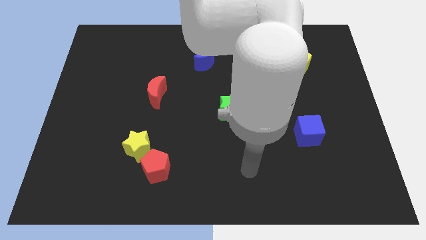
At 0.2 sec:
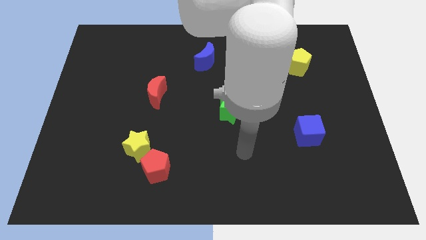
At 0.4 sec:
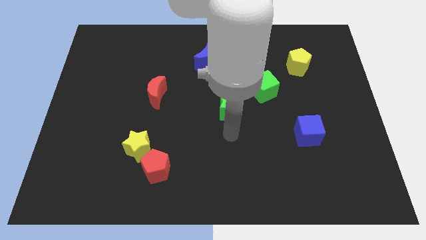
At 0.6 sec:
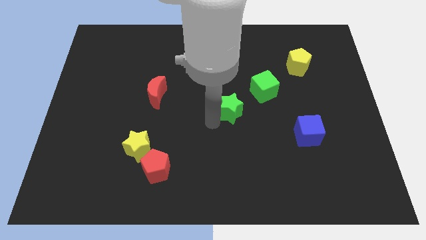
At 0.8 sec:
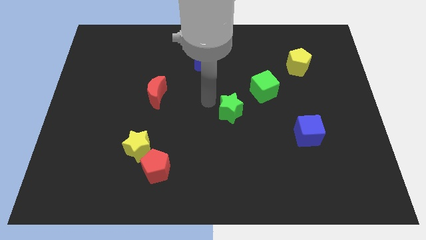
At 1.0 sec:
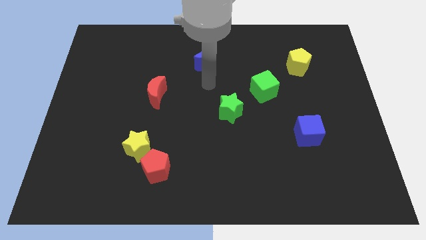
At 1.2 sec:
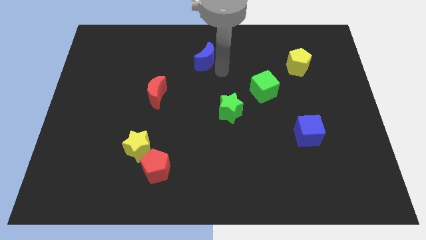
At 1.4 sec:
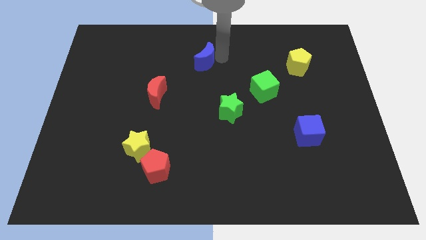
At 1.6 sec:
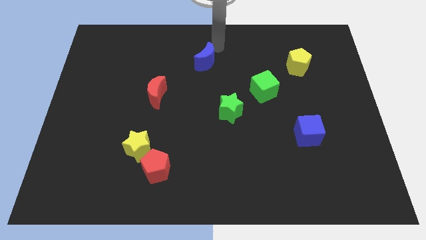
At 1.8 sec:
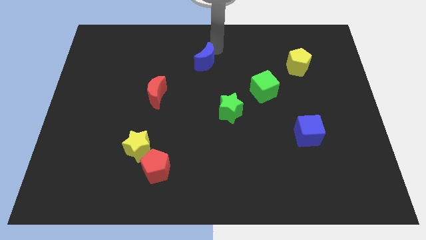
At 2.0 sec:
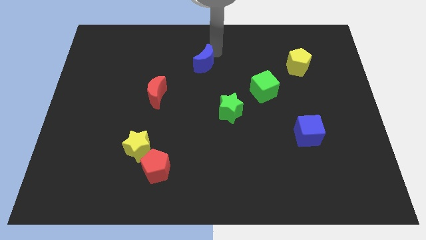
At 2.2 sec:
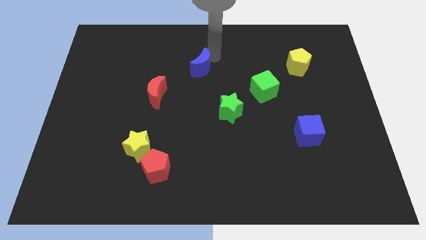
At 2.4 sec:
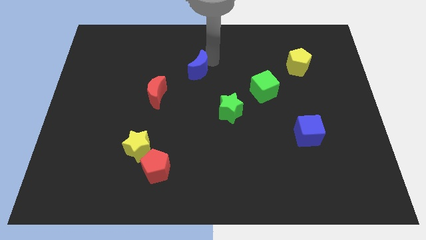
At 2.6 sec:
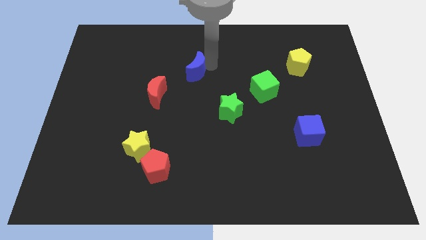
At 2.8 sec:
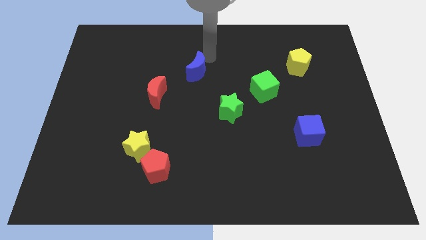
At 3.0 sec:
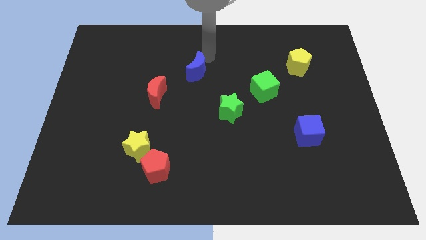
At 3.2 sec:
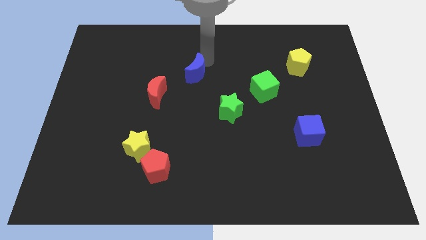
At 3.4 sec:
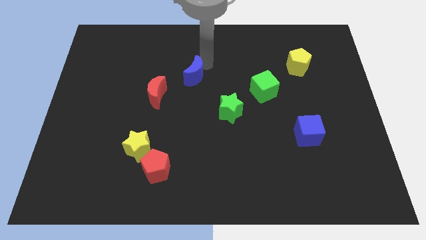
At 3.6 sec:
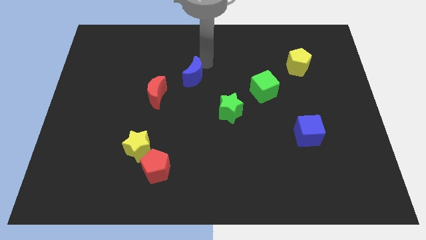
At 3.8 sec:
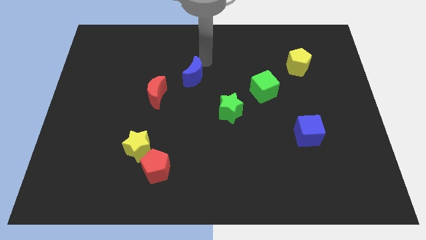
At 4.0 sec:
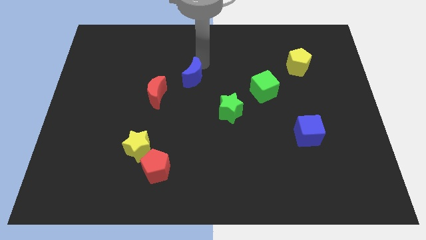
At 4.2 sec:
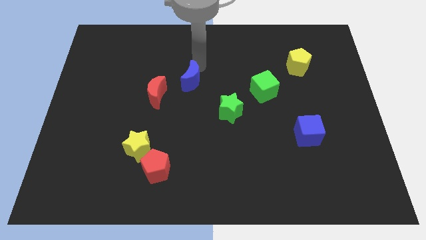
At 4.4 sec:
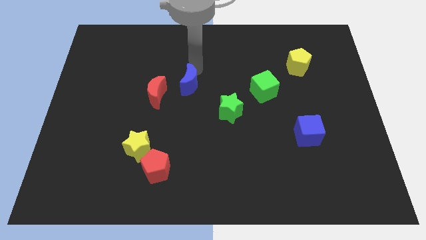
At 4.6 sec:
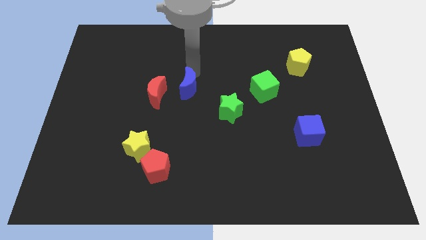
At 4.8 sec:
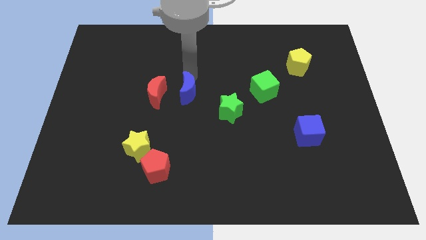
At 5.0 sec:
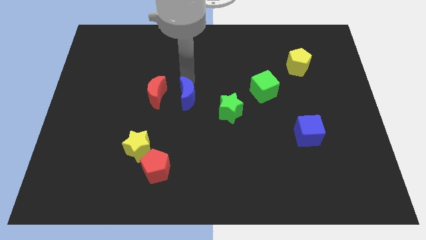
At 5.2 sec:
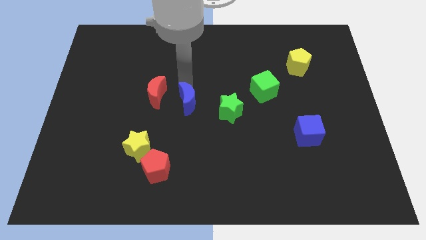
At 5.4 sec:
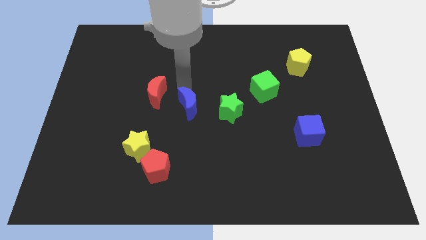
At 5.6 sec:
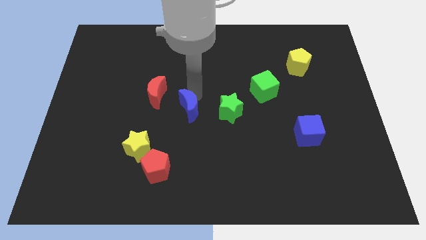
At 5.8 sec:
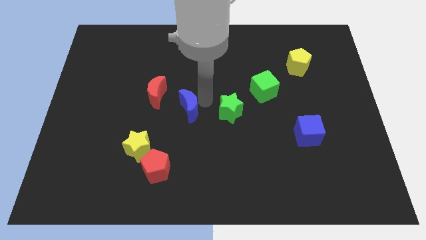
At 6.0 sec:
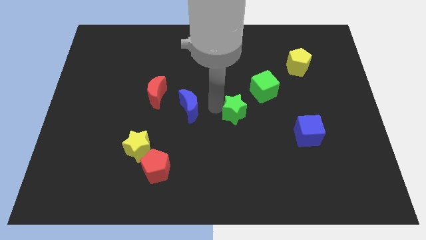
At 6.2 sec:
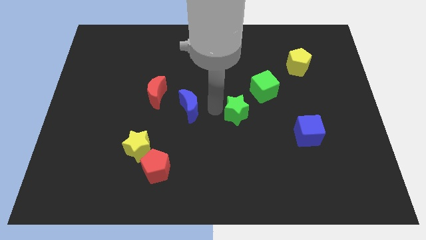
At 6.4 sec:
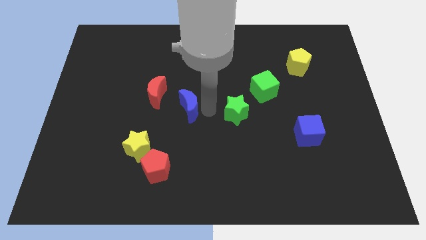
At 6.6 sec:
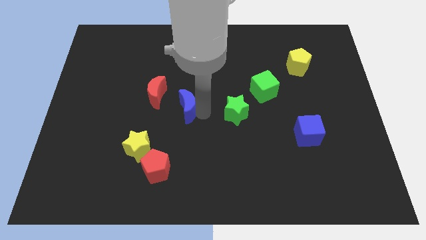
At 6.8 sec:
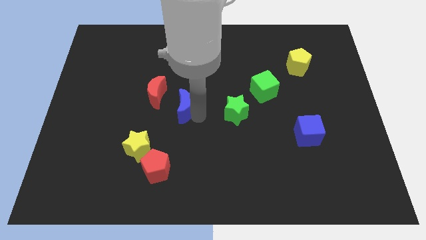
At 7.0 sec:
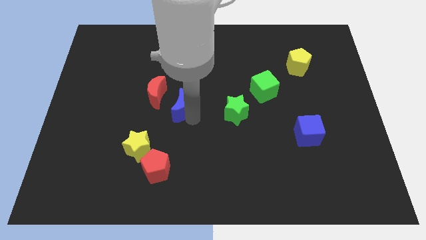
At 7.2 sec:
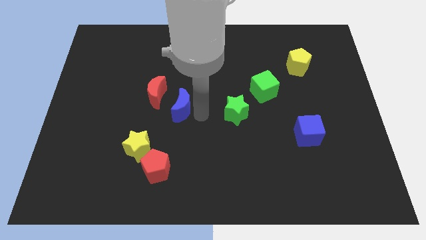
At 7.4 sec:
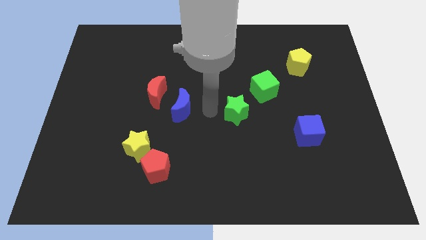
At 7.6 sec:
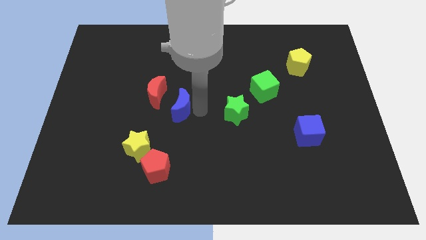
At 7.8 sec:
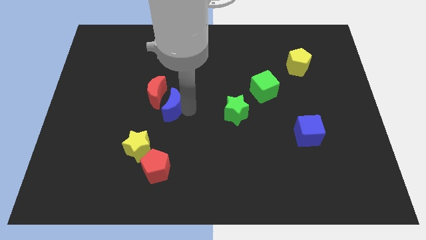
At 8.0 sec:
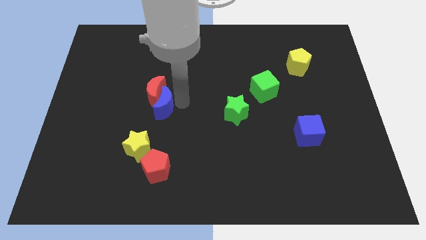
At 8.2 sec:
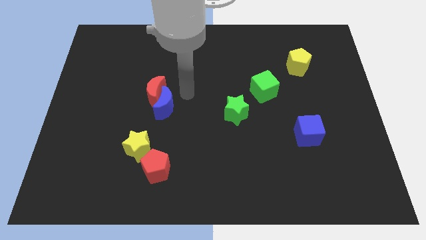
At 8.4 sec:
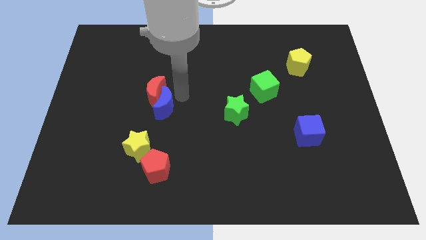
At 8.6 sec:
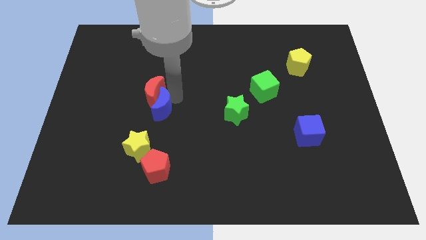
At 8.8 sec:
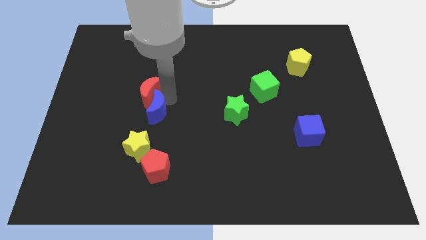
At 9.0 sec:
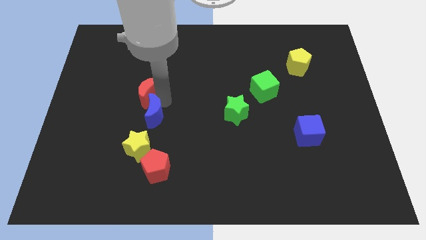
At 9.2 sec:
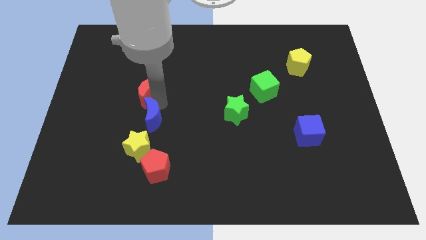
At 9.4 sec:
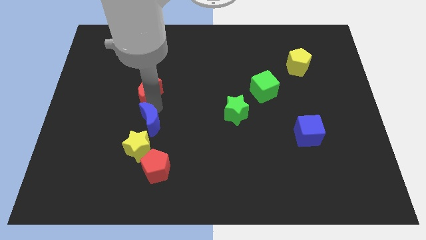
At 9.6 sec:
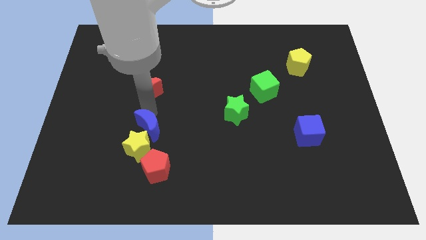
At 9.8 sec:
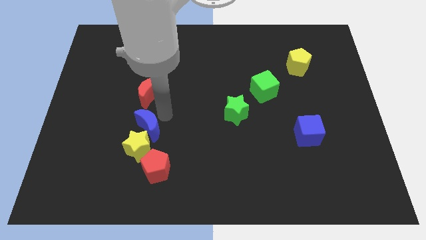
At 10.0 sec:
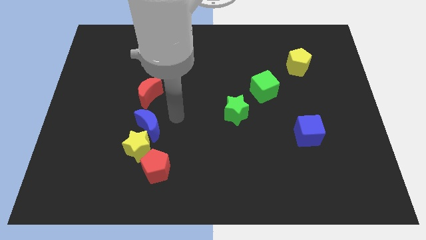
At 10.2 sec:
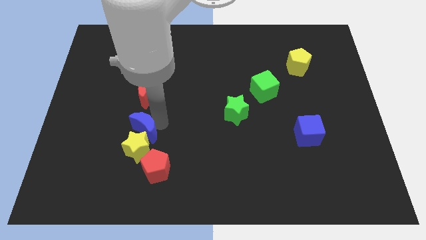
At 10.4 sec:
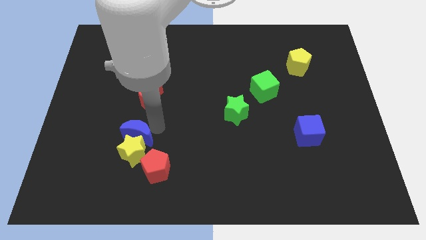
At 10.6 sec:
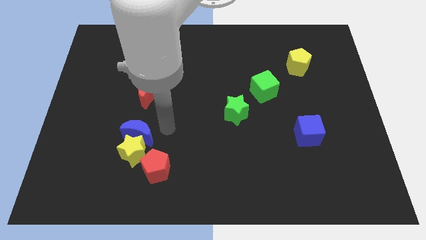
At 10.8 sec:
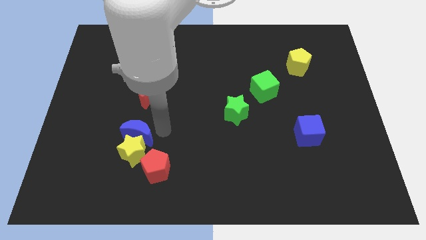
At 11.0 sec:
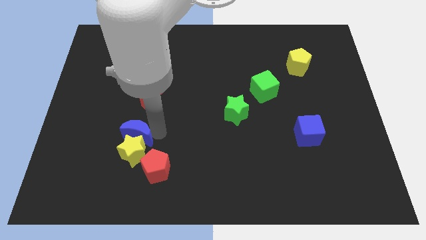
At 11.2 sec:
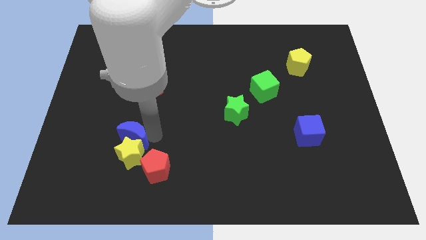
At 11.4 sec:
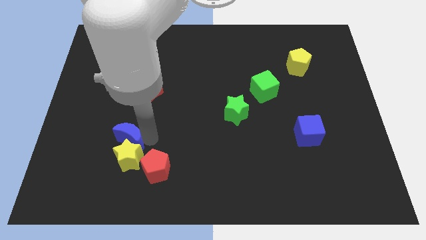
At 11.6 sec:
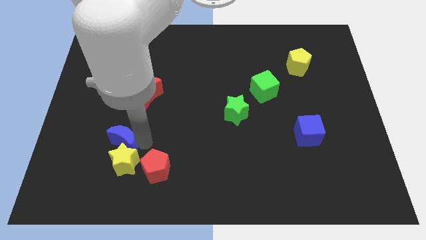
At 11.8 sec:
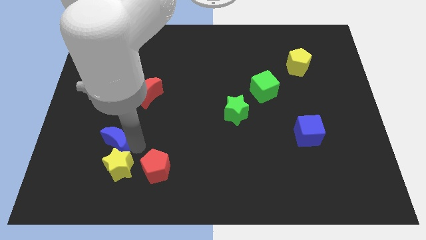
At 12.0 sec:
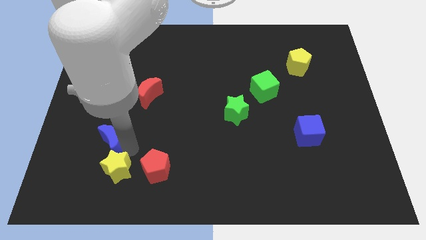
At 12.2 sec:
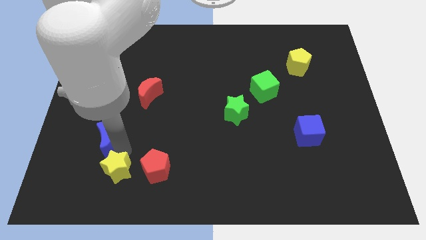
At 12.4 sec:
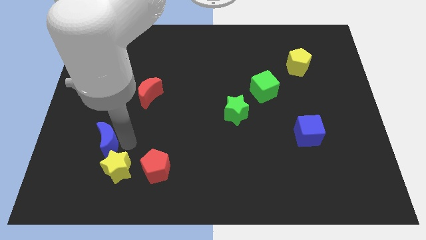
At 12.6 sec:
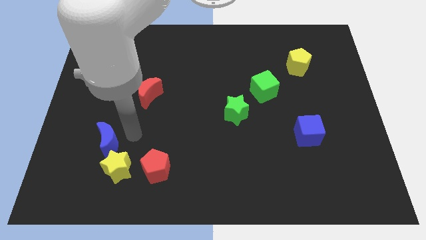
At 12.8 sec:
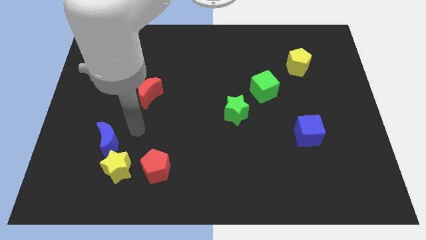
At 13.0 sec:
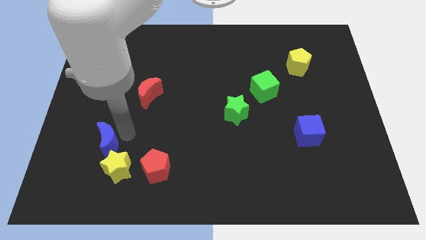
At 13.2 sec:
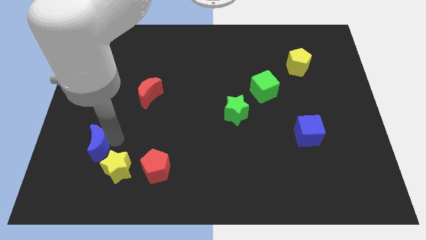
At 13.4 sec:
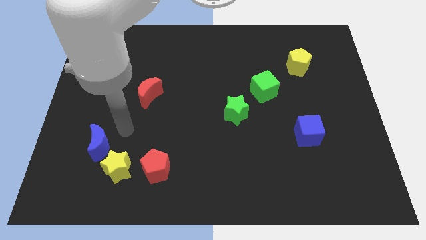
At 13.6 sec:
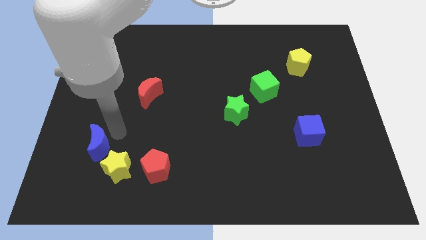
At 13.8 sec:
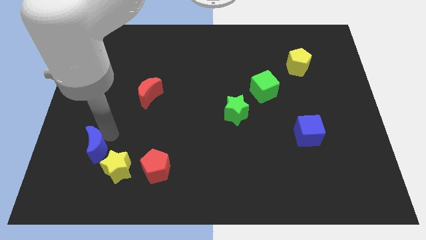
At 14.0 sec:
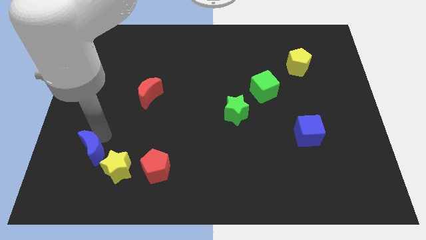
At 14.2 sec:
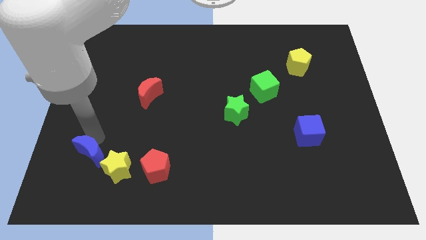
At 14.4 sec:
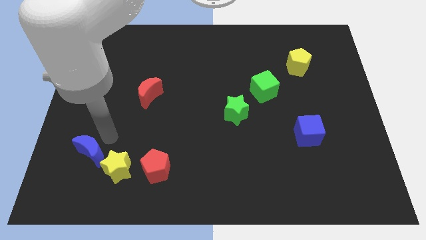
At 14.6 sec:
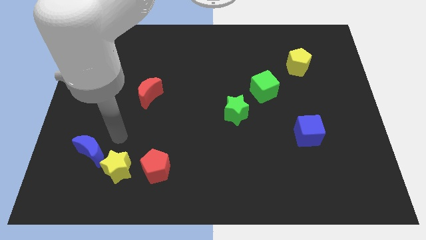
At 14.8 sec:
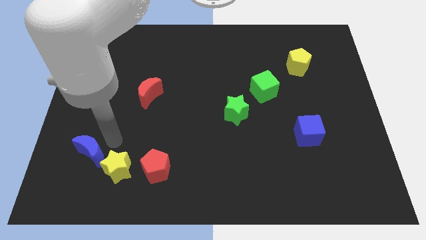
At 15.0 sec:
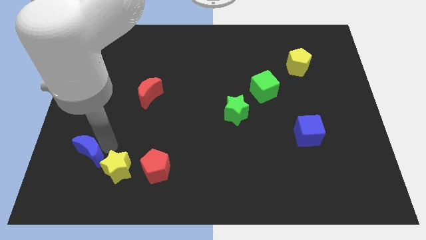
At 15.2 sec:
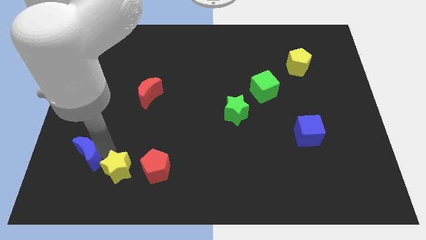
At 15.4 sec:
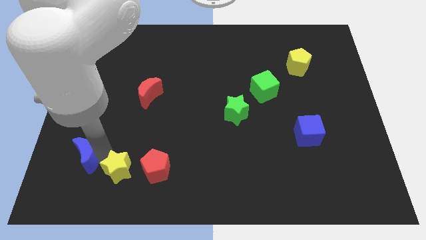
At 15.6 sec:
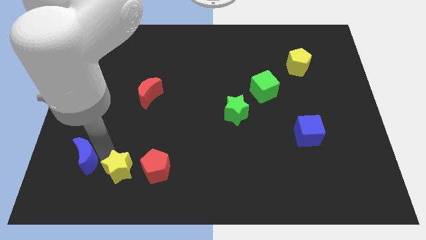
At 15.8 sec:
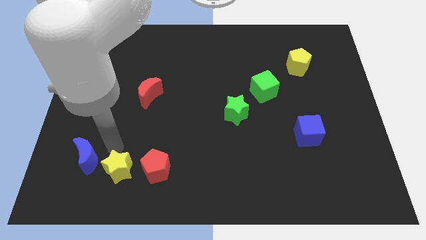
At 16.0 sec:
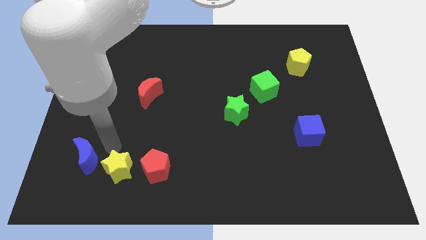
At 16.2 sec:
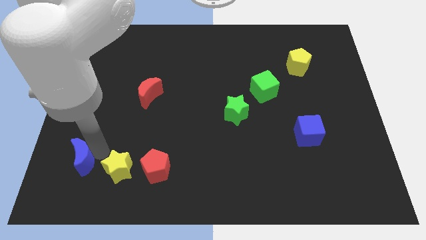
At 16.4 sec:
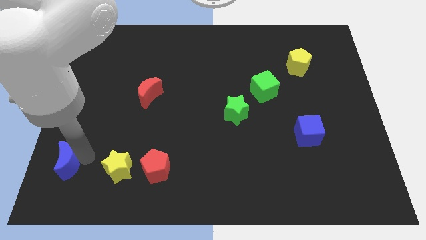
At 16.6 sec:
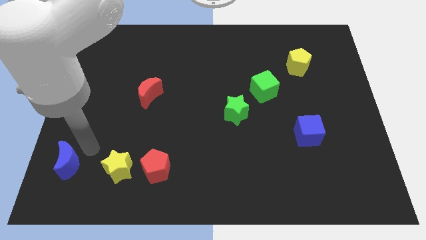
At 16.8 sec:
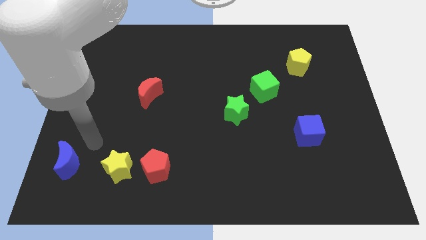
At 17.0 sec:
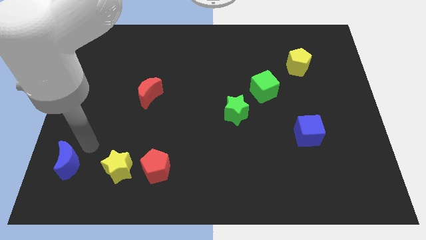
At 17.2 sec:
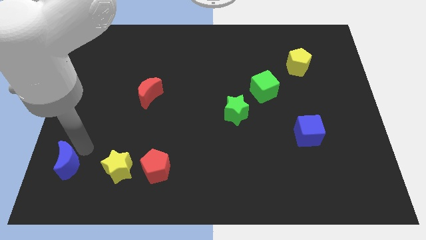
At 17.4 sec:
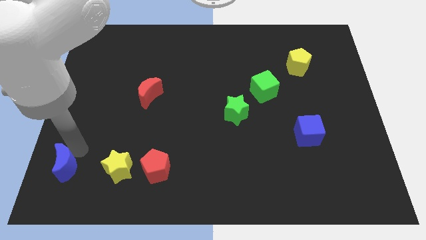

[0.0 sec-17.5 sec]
slide the blue moon to the lower left corner
